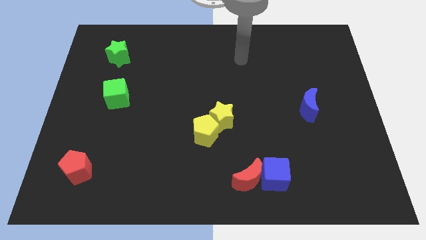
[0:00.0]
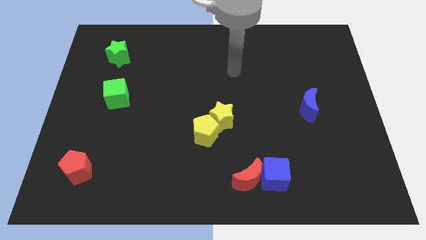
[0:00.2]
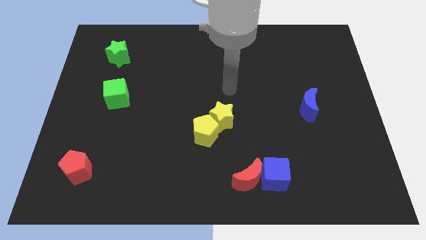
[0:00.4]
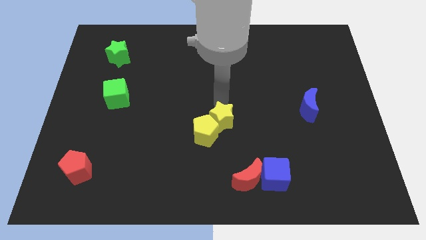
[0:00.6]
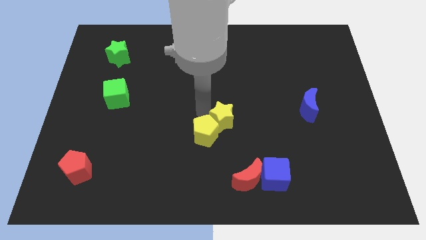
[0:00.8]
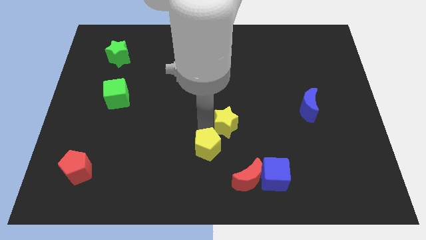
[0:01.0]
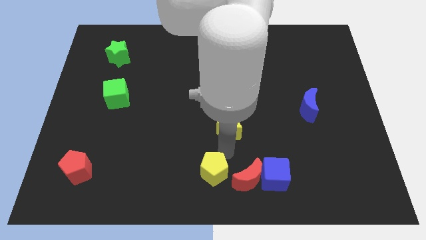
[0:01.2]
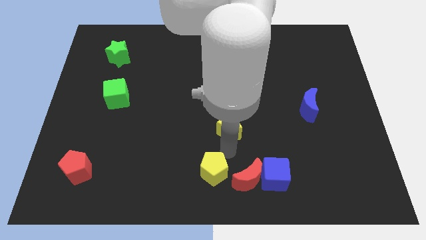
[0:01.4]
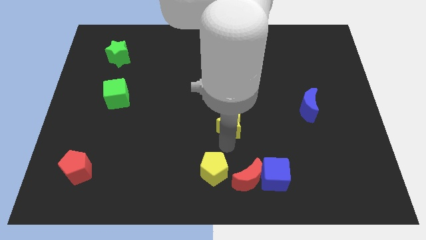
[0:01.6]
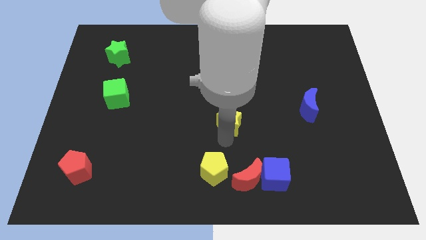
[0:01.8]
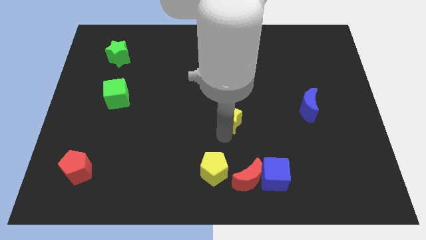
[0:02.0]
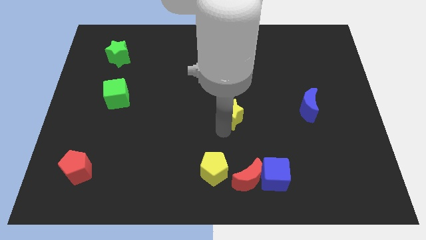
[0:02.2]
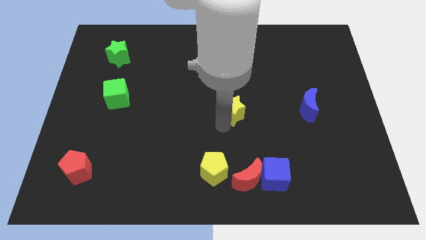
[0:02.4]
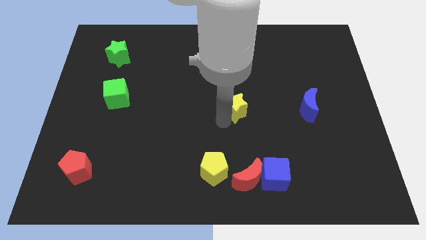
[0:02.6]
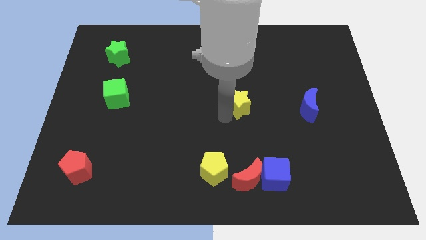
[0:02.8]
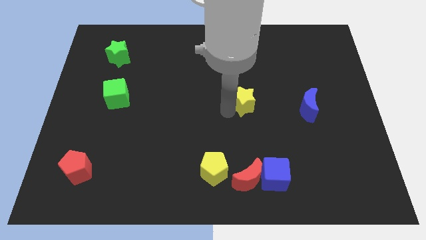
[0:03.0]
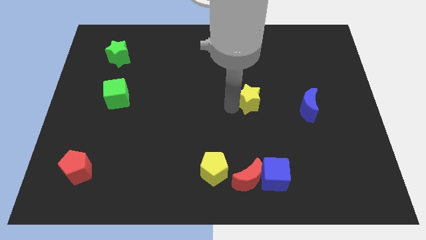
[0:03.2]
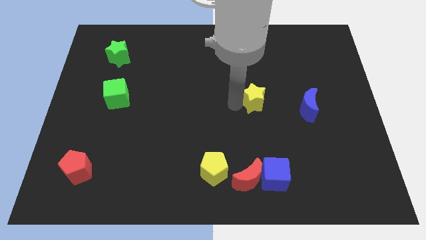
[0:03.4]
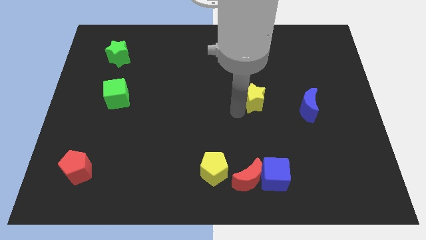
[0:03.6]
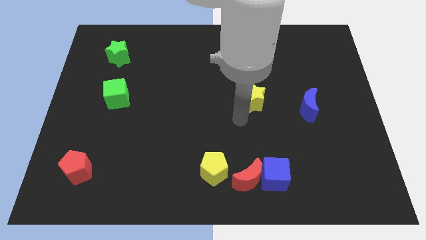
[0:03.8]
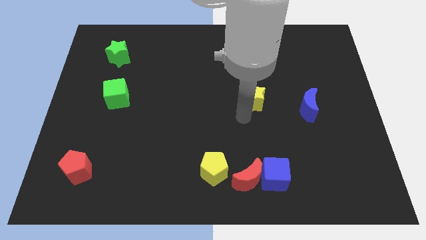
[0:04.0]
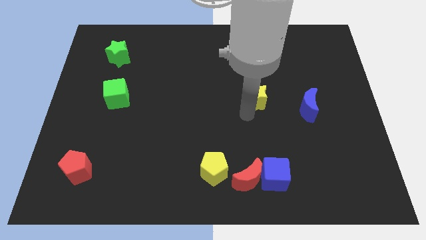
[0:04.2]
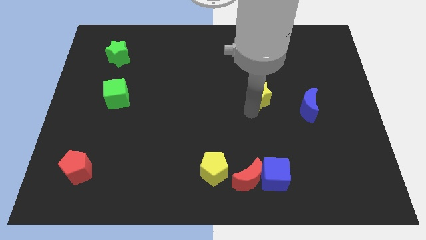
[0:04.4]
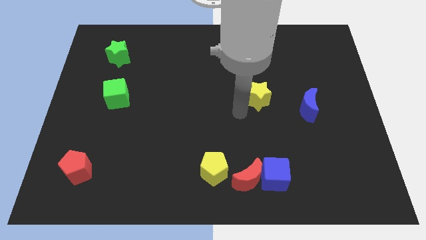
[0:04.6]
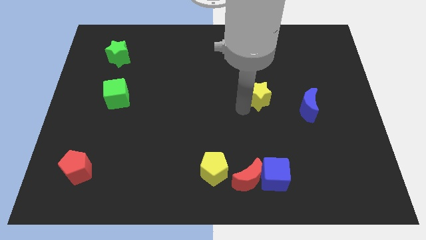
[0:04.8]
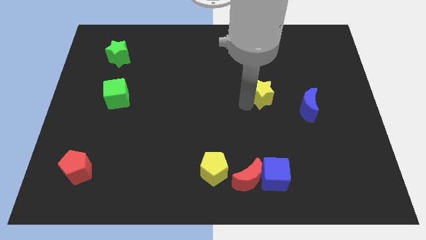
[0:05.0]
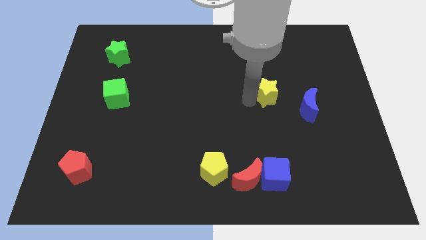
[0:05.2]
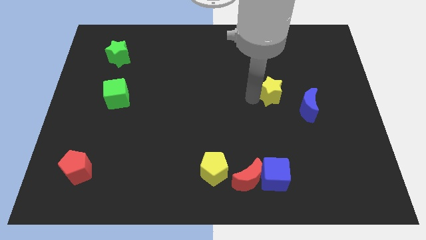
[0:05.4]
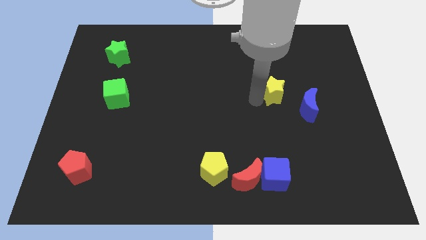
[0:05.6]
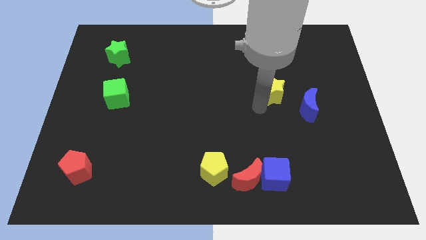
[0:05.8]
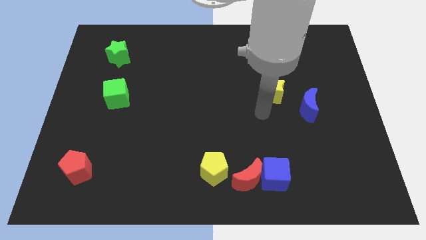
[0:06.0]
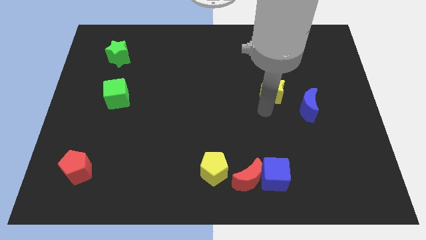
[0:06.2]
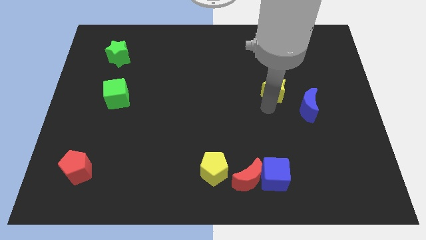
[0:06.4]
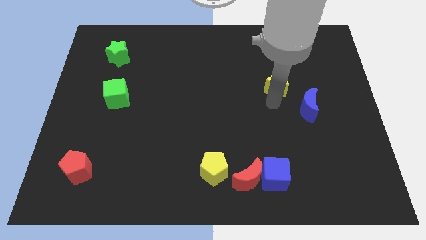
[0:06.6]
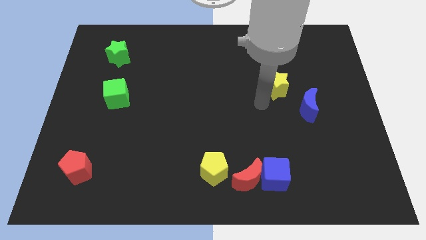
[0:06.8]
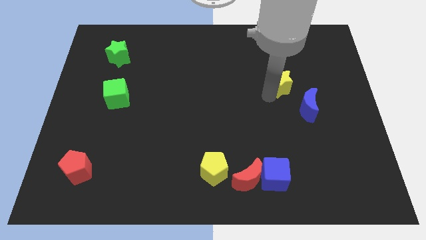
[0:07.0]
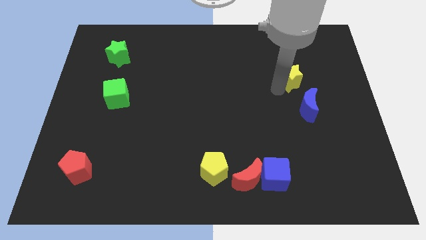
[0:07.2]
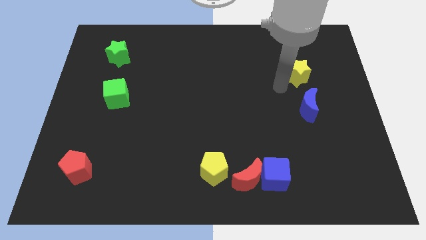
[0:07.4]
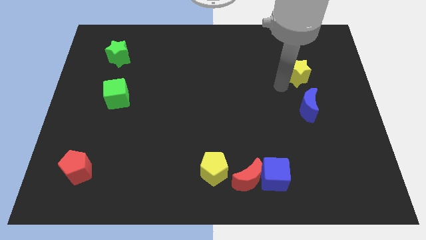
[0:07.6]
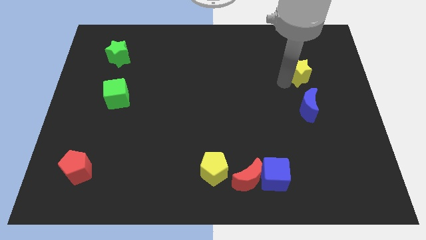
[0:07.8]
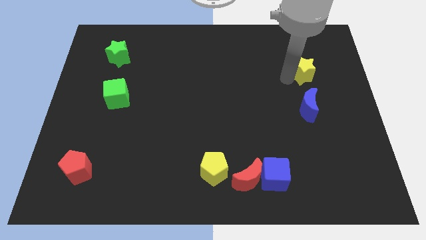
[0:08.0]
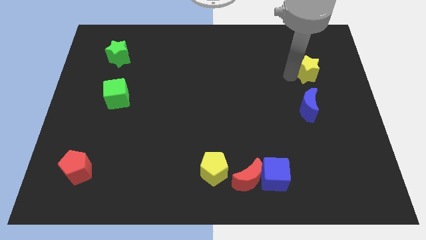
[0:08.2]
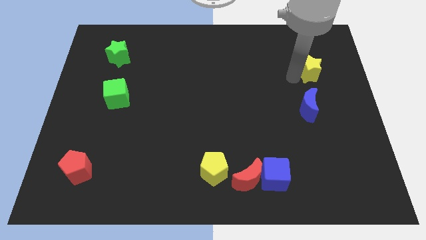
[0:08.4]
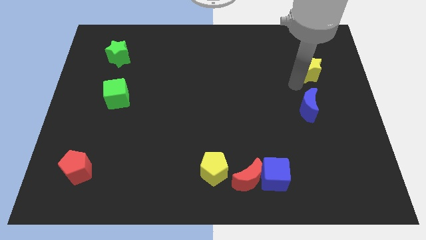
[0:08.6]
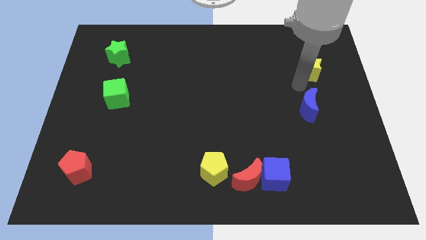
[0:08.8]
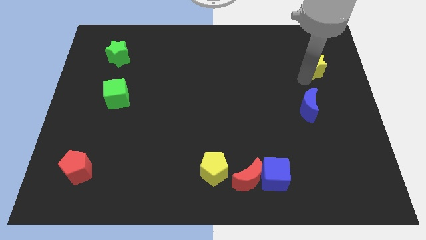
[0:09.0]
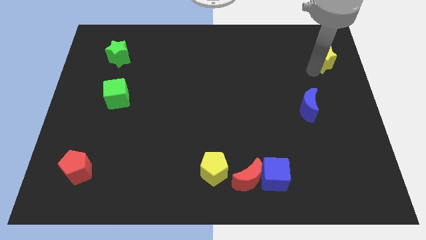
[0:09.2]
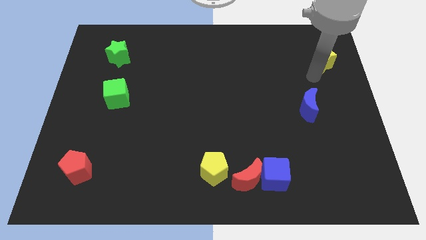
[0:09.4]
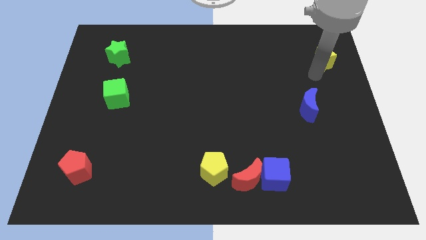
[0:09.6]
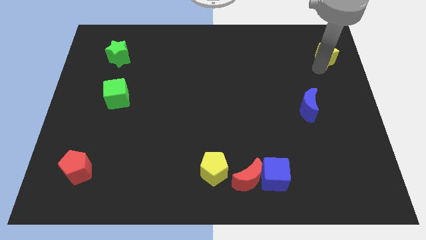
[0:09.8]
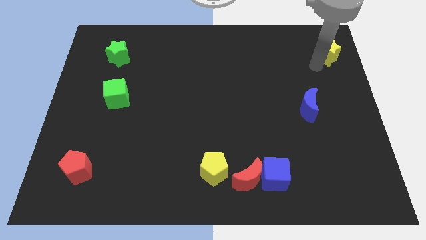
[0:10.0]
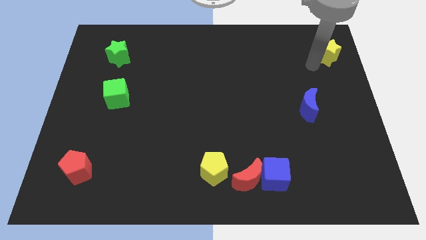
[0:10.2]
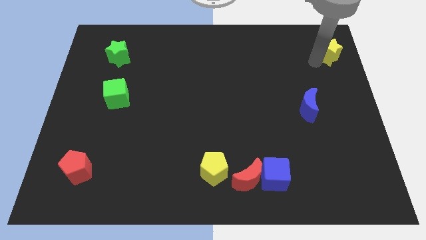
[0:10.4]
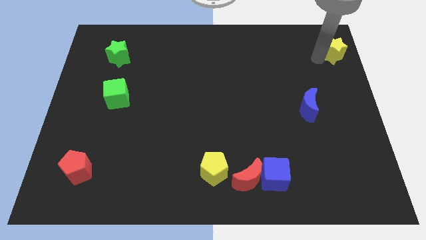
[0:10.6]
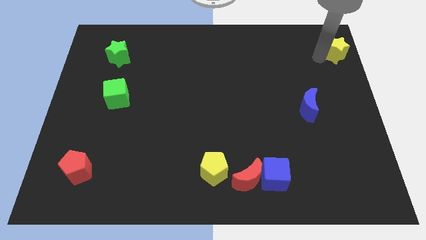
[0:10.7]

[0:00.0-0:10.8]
move the yellow star to the top right corner
